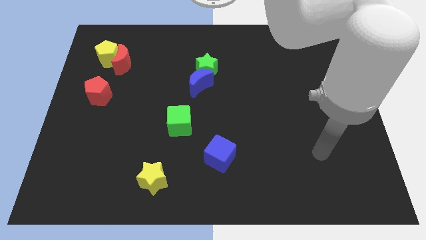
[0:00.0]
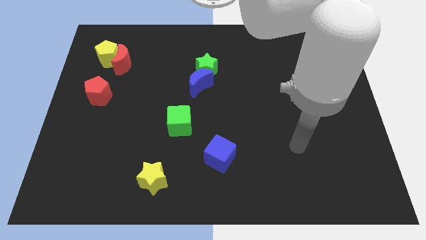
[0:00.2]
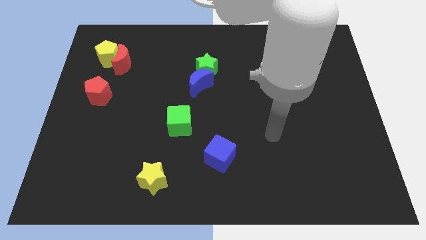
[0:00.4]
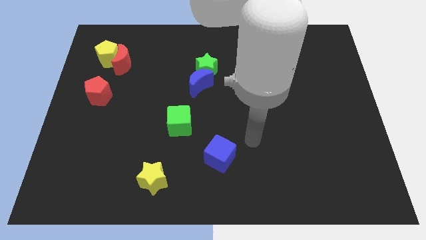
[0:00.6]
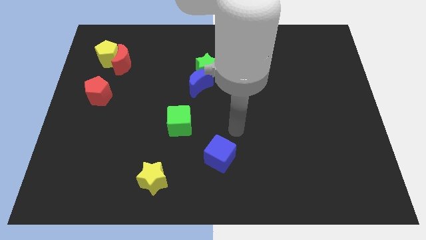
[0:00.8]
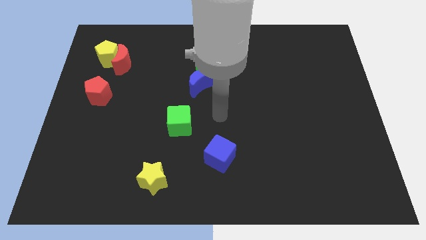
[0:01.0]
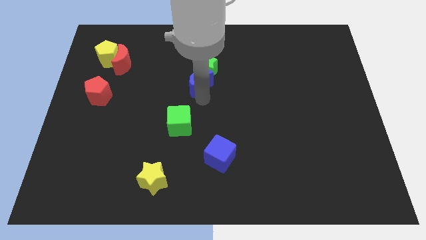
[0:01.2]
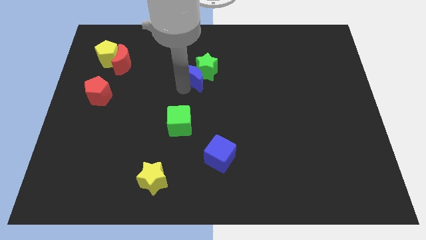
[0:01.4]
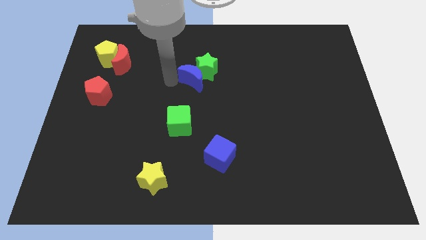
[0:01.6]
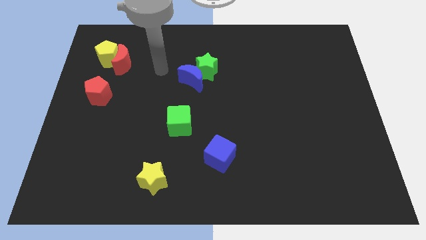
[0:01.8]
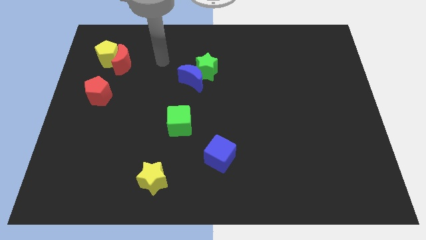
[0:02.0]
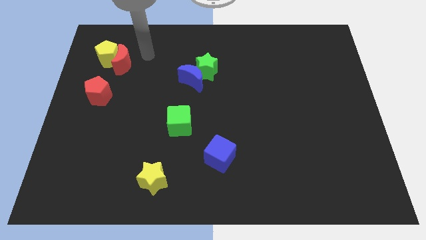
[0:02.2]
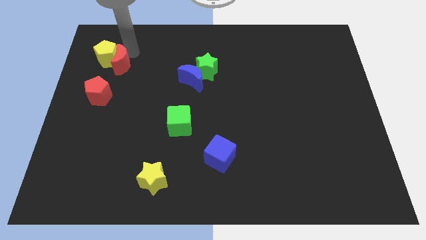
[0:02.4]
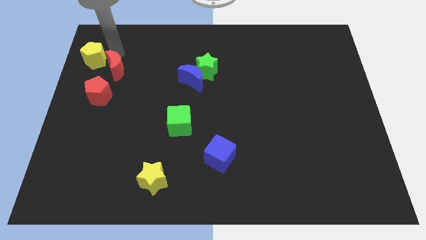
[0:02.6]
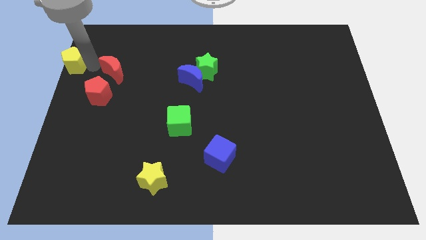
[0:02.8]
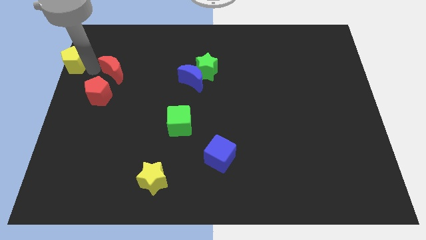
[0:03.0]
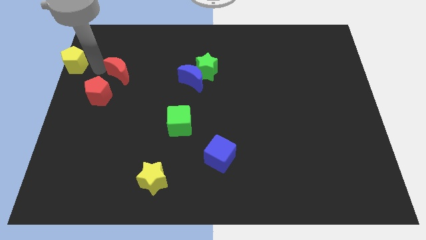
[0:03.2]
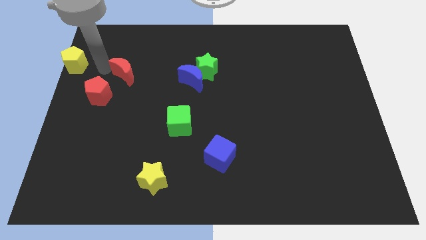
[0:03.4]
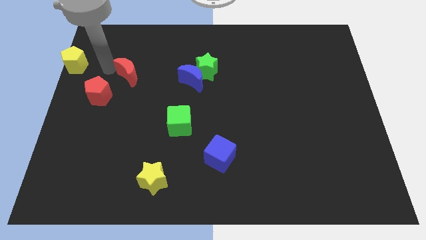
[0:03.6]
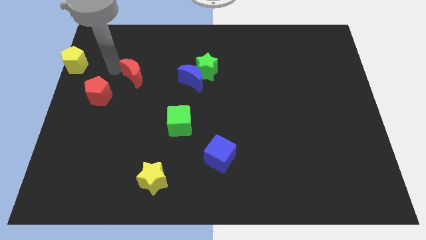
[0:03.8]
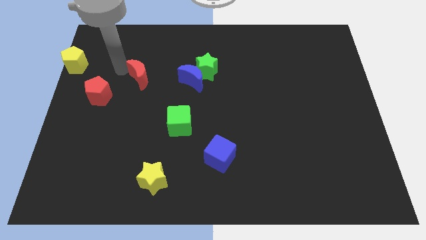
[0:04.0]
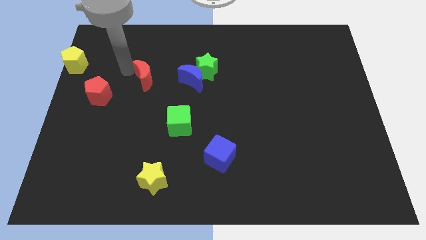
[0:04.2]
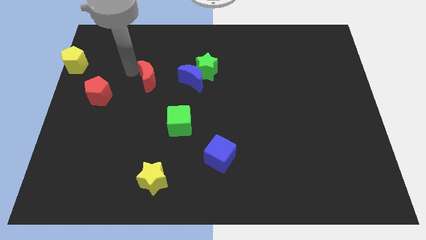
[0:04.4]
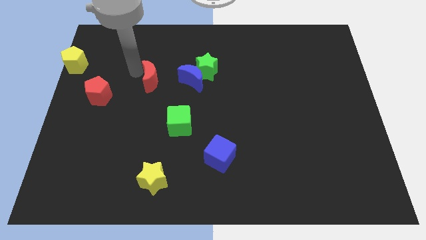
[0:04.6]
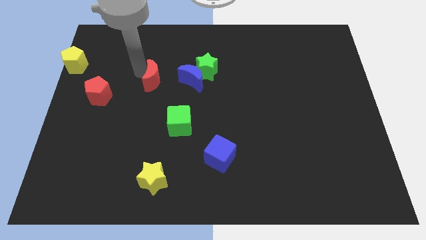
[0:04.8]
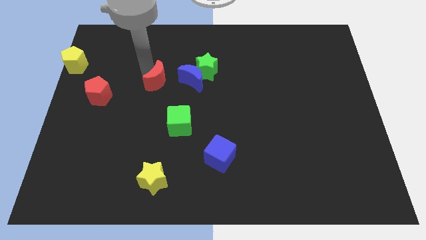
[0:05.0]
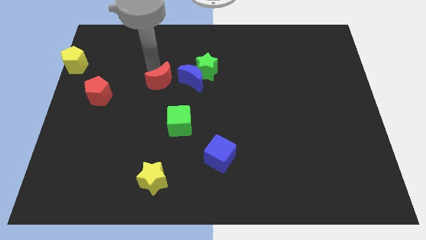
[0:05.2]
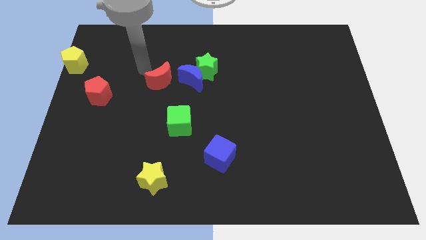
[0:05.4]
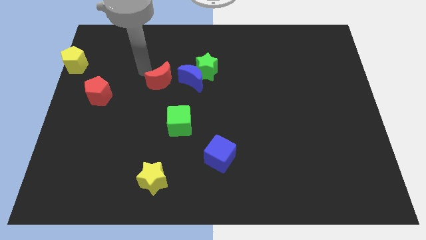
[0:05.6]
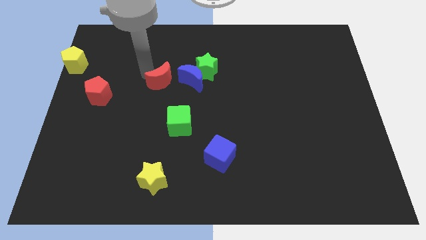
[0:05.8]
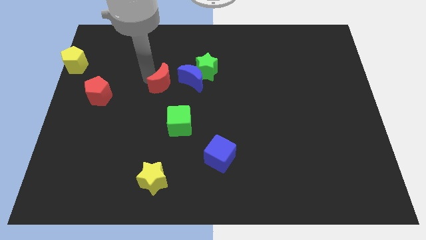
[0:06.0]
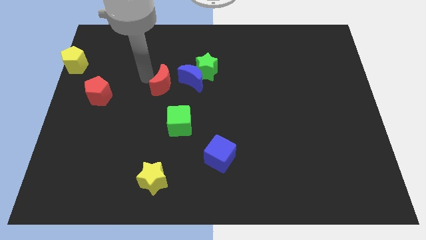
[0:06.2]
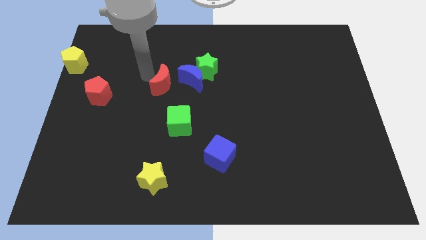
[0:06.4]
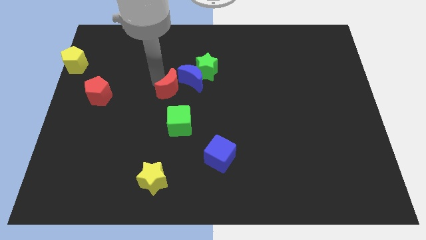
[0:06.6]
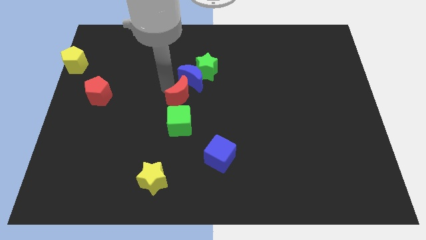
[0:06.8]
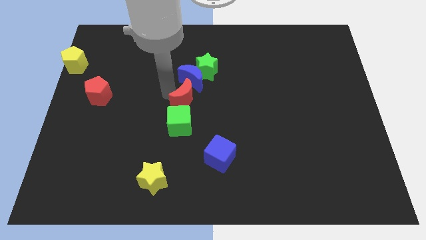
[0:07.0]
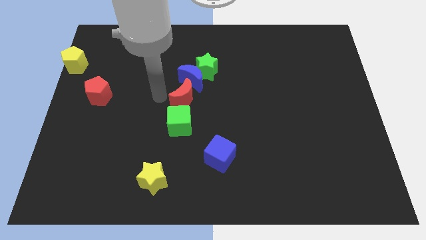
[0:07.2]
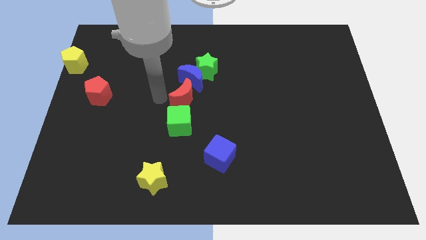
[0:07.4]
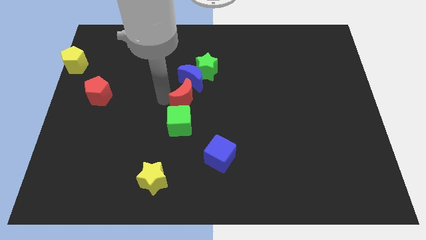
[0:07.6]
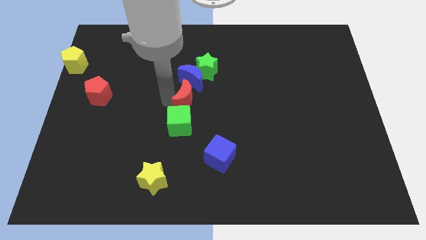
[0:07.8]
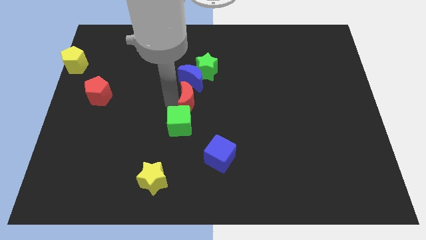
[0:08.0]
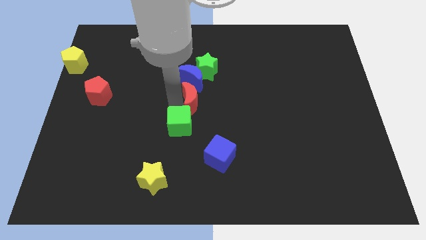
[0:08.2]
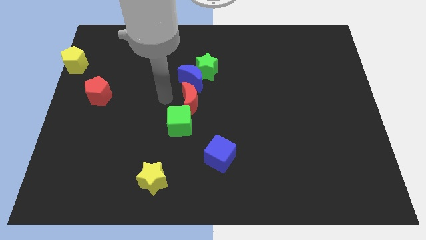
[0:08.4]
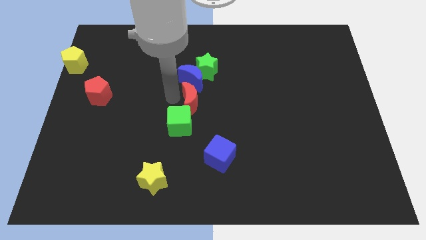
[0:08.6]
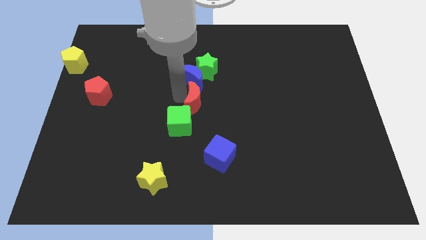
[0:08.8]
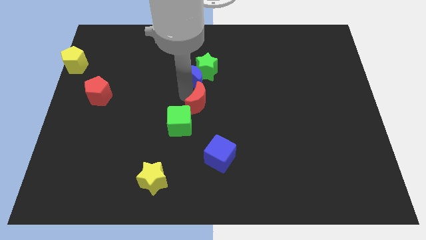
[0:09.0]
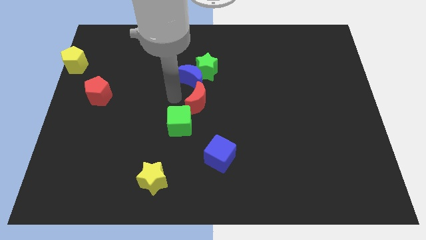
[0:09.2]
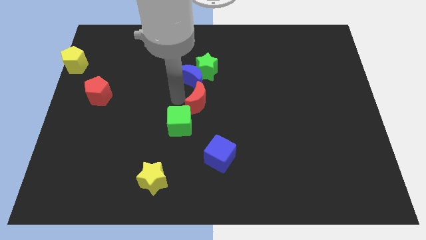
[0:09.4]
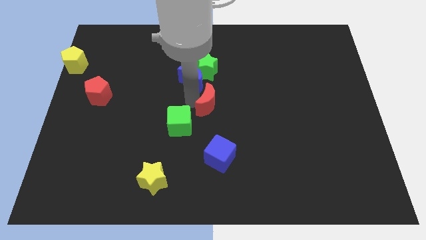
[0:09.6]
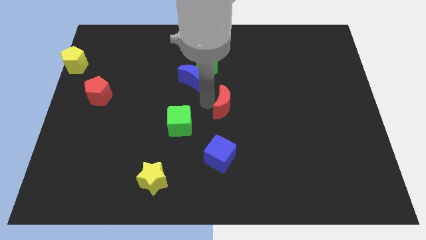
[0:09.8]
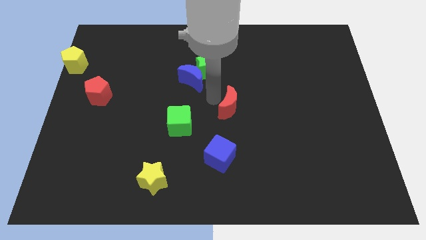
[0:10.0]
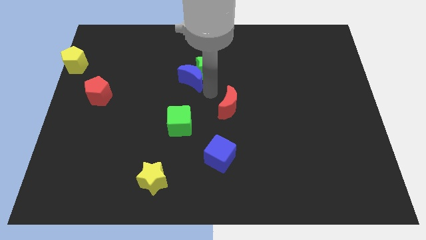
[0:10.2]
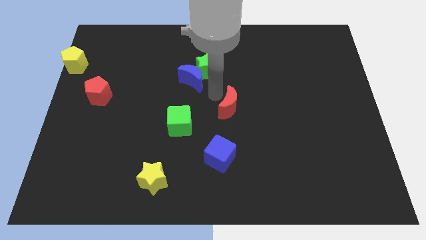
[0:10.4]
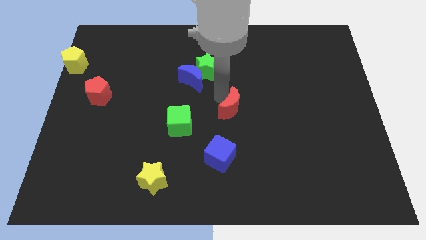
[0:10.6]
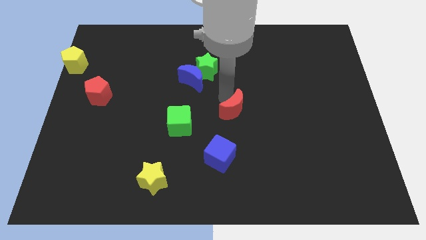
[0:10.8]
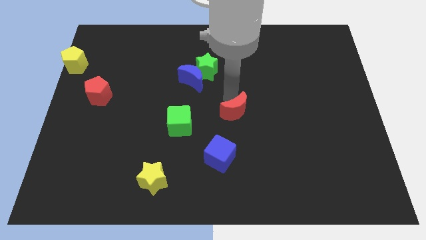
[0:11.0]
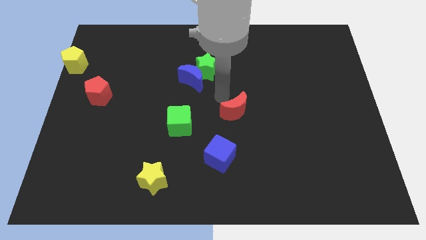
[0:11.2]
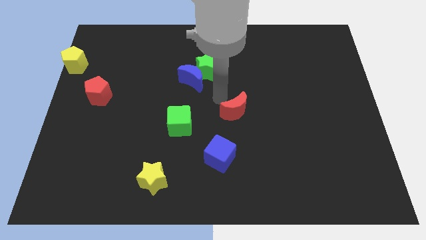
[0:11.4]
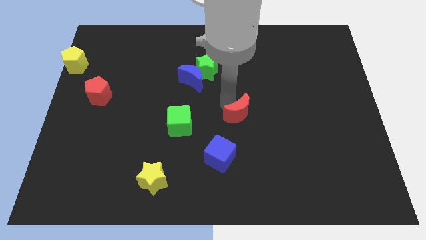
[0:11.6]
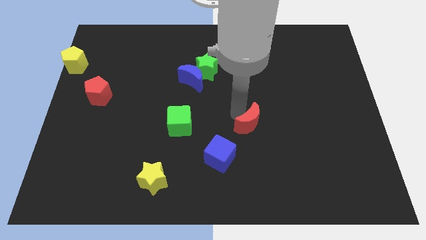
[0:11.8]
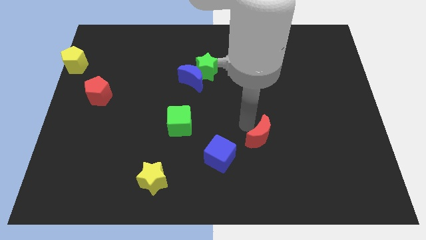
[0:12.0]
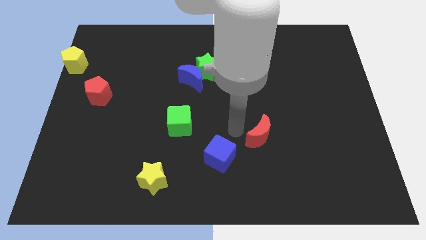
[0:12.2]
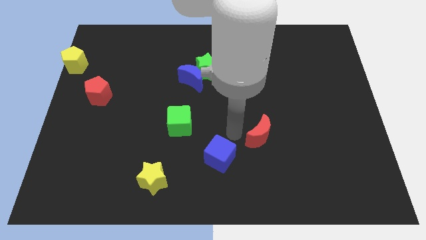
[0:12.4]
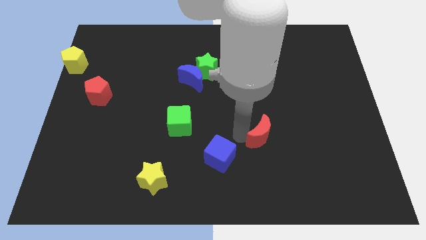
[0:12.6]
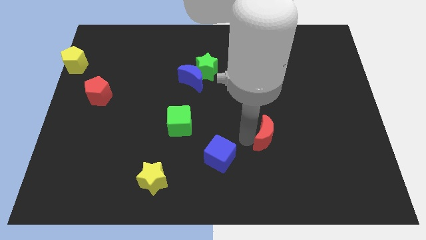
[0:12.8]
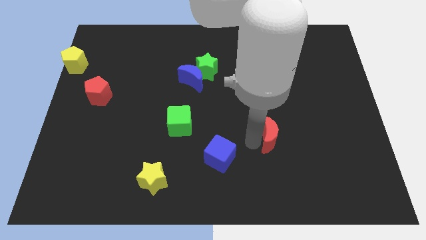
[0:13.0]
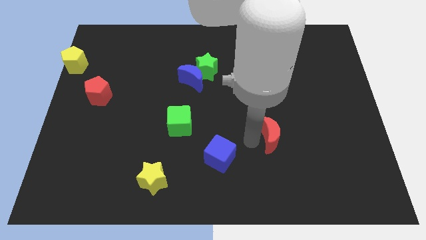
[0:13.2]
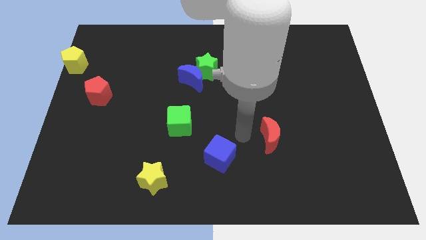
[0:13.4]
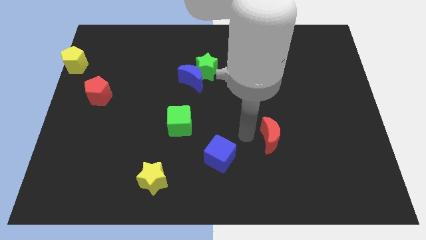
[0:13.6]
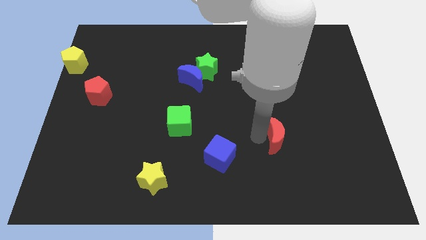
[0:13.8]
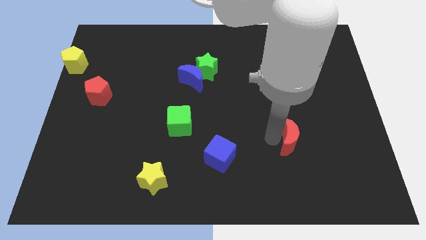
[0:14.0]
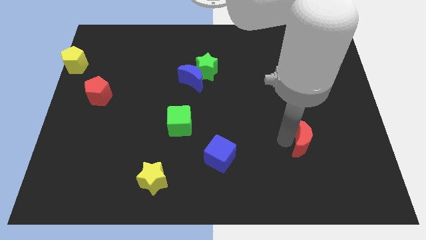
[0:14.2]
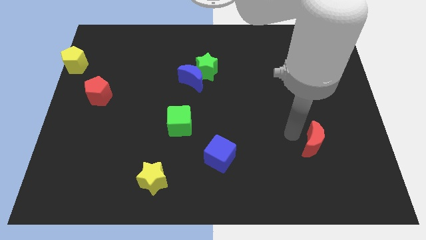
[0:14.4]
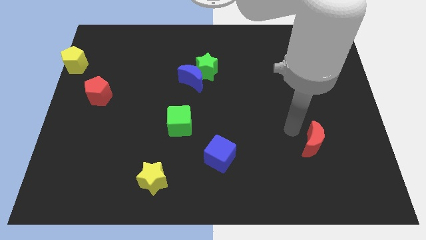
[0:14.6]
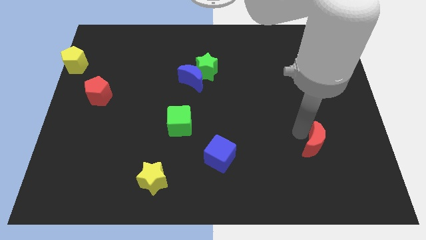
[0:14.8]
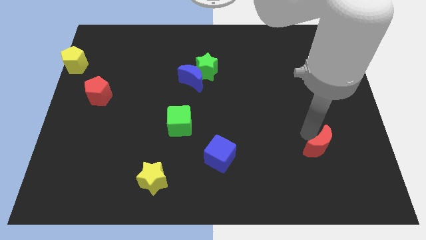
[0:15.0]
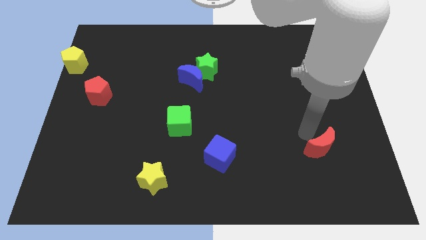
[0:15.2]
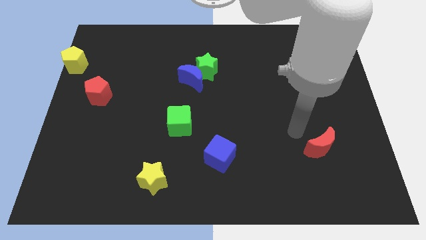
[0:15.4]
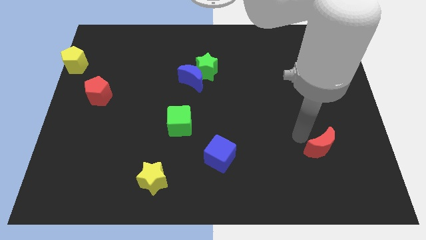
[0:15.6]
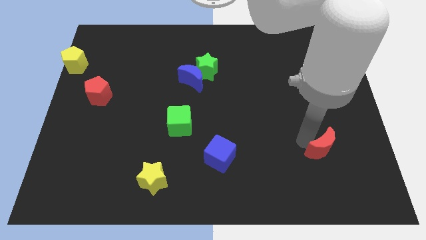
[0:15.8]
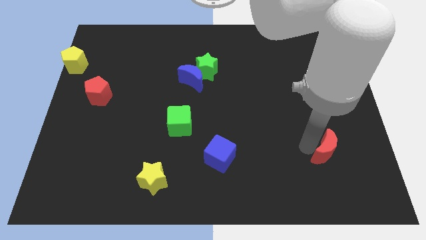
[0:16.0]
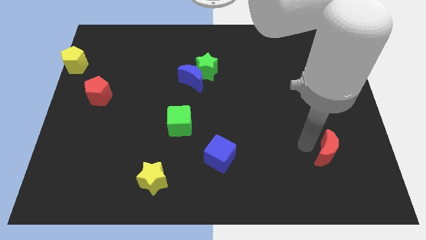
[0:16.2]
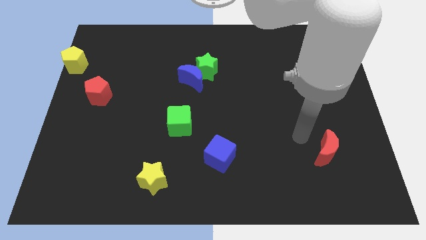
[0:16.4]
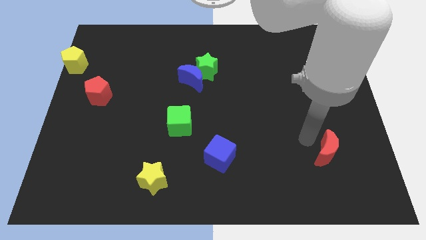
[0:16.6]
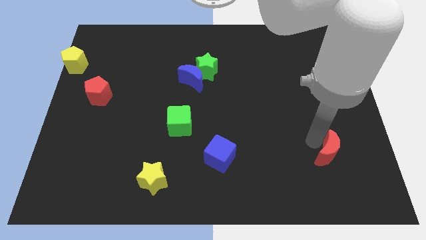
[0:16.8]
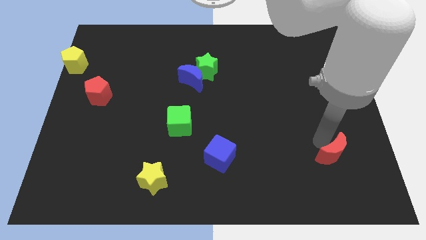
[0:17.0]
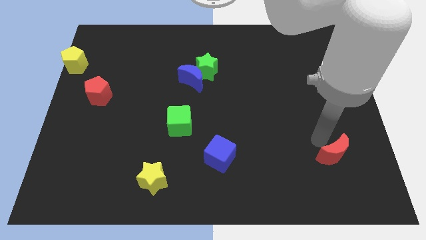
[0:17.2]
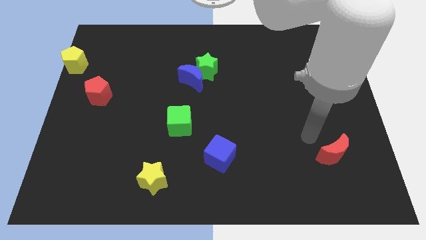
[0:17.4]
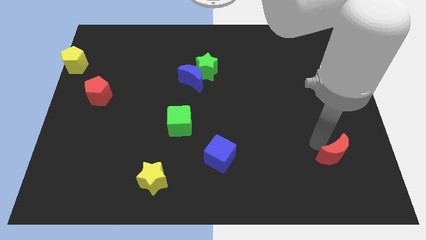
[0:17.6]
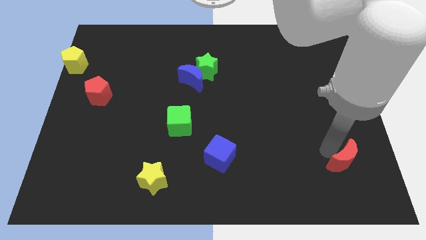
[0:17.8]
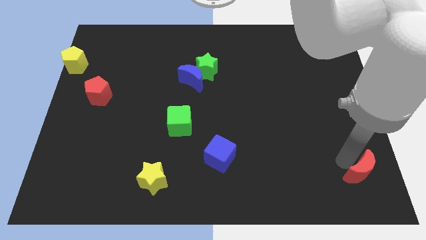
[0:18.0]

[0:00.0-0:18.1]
move the red moon to the lower right corner
